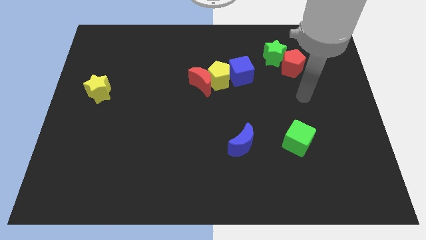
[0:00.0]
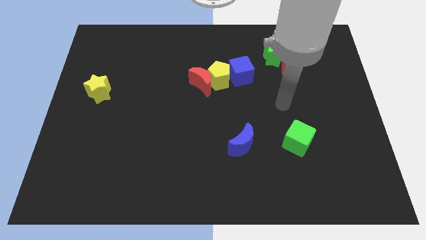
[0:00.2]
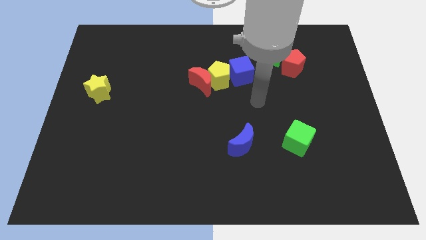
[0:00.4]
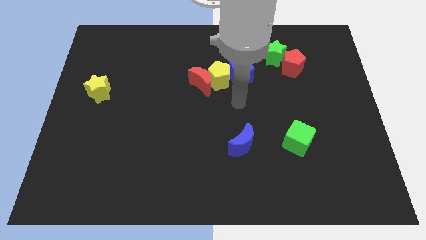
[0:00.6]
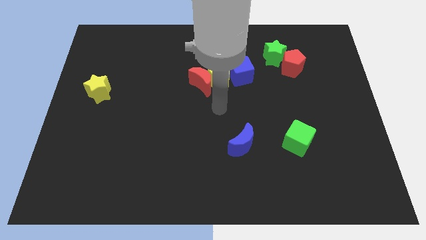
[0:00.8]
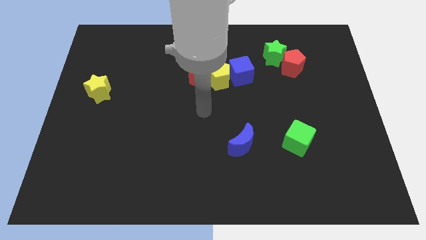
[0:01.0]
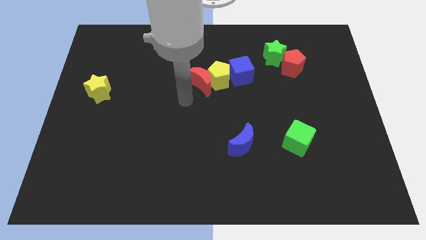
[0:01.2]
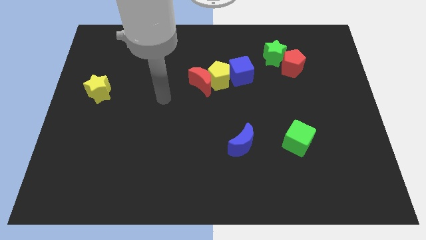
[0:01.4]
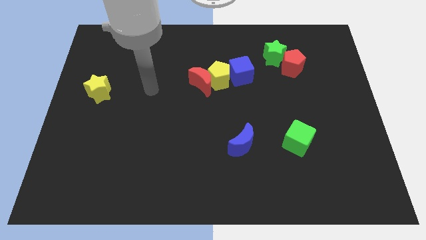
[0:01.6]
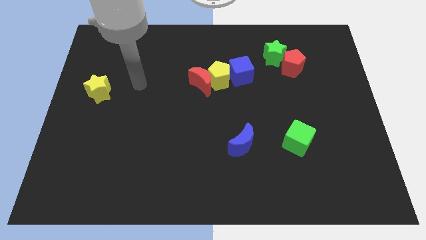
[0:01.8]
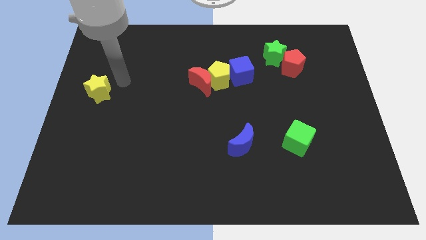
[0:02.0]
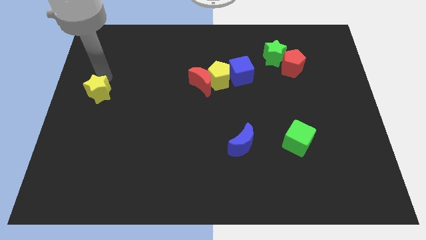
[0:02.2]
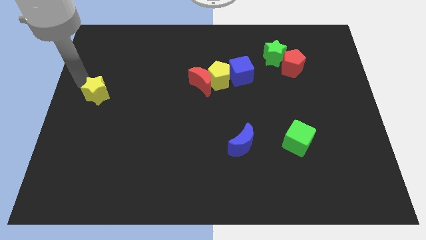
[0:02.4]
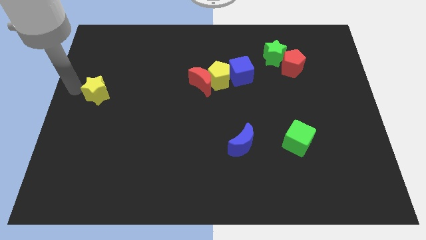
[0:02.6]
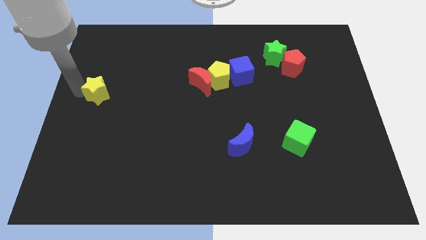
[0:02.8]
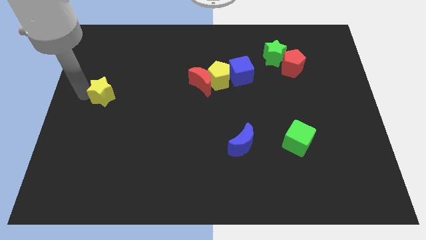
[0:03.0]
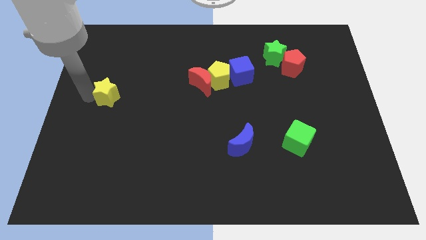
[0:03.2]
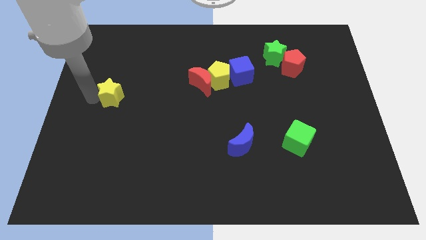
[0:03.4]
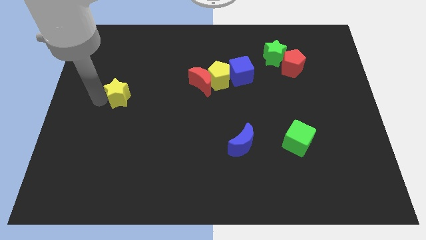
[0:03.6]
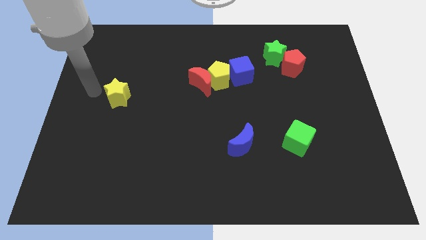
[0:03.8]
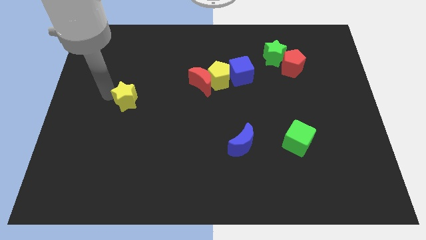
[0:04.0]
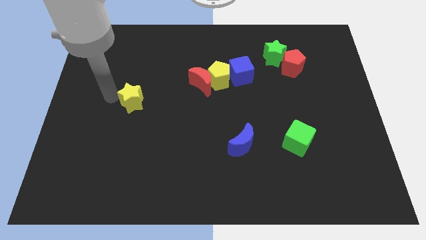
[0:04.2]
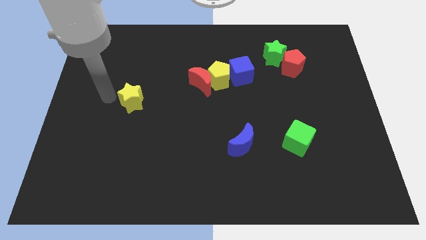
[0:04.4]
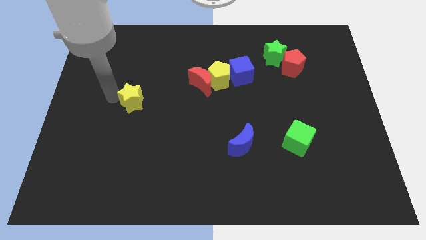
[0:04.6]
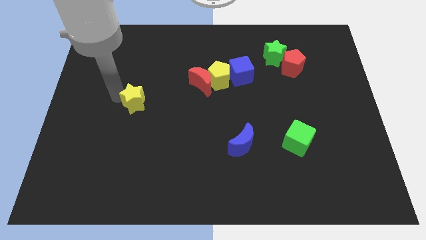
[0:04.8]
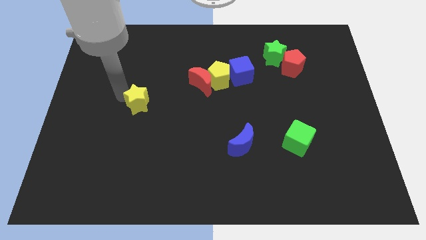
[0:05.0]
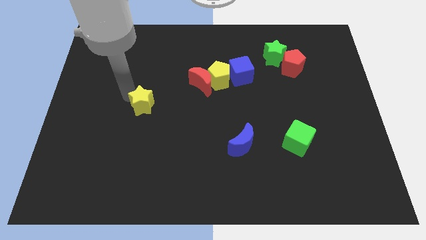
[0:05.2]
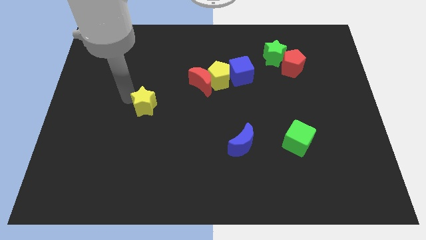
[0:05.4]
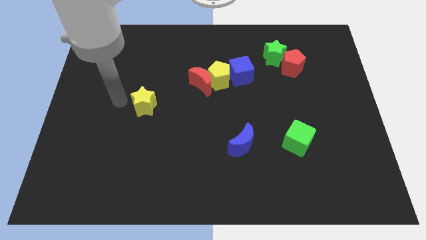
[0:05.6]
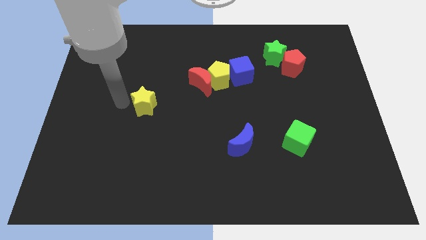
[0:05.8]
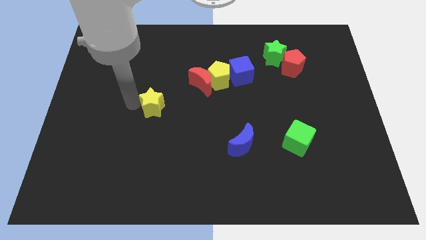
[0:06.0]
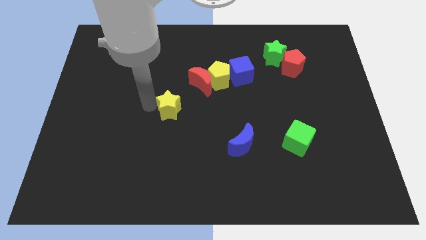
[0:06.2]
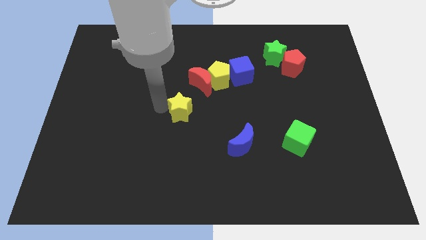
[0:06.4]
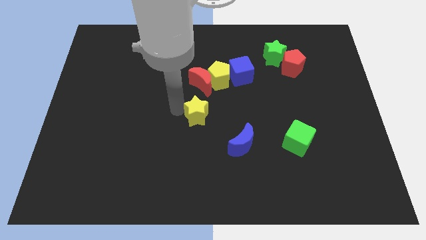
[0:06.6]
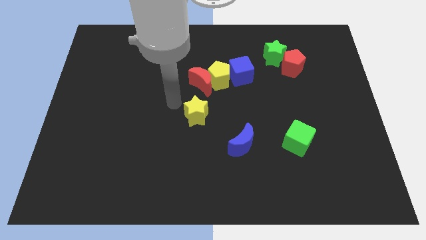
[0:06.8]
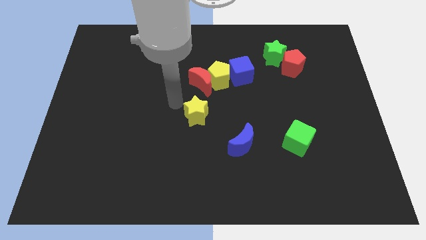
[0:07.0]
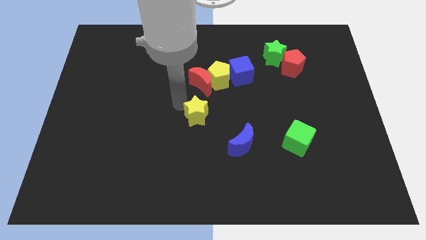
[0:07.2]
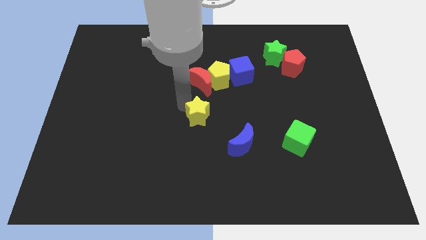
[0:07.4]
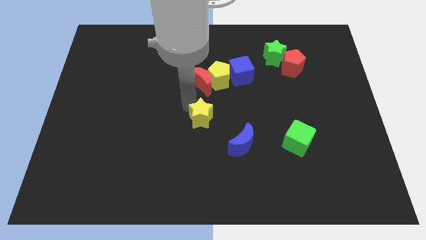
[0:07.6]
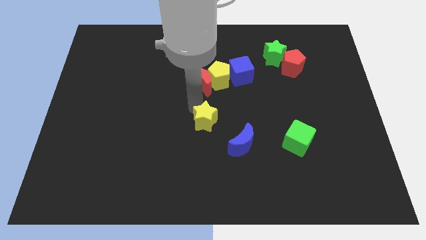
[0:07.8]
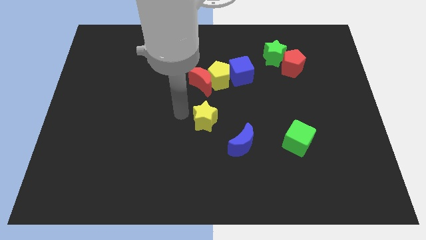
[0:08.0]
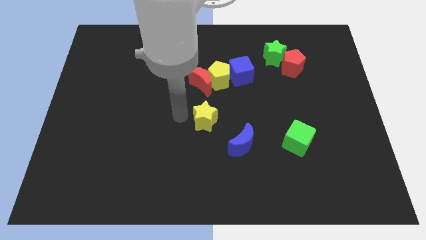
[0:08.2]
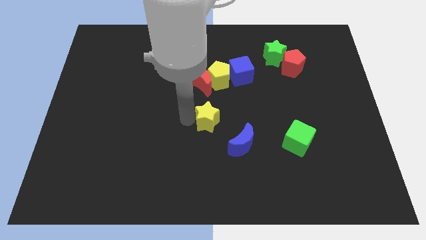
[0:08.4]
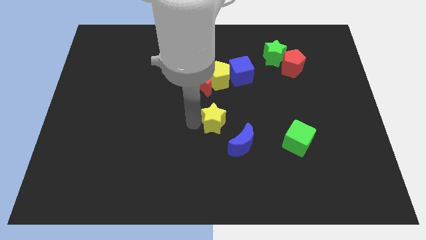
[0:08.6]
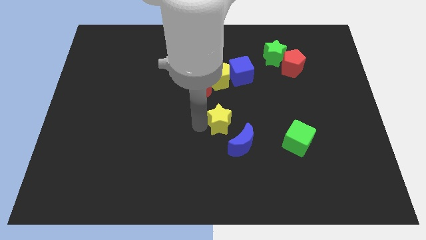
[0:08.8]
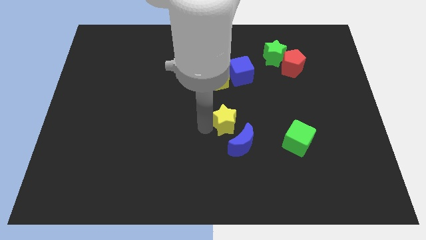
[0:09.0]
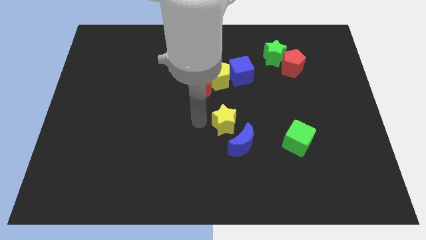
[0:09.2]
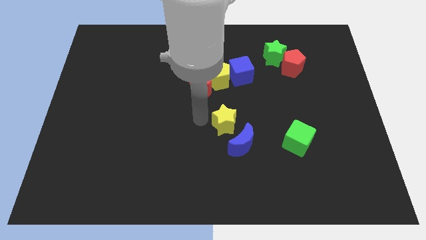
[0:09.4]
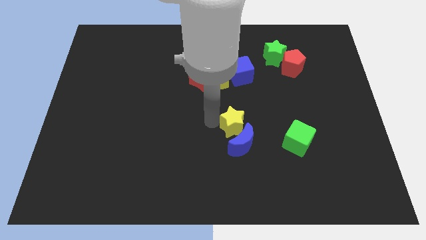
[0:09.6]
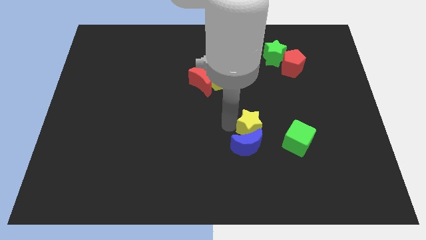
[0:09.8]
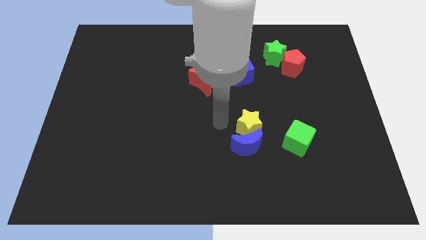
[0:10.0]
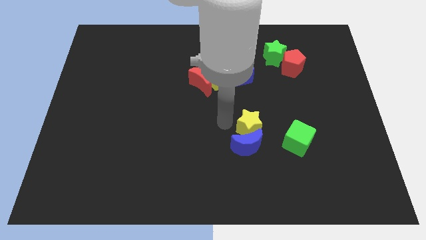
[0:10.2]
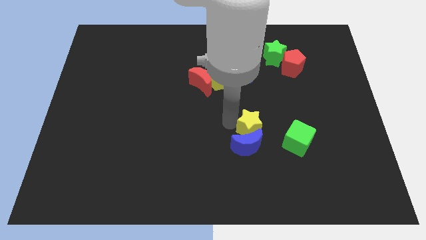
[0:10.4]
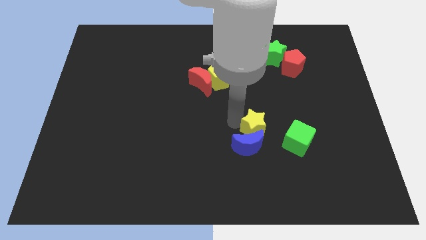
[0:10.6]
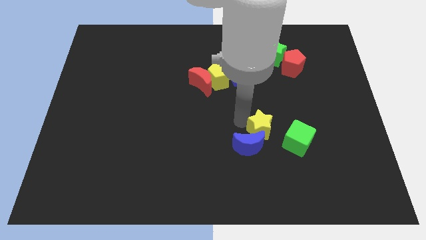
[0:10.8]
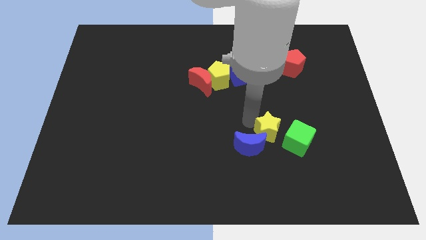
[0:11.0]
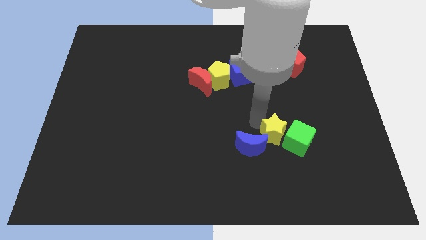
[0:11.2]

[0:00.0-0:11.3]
put the yellow star close to the green cube

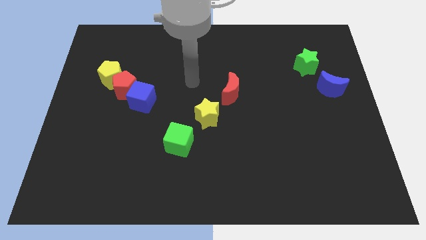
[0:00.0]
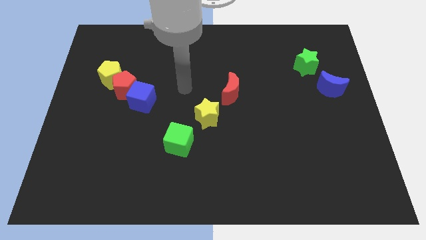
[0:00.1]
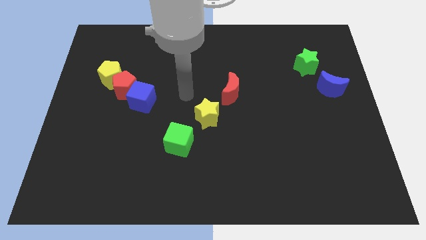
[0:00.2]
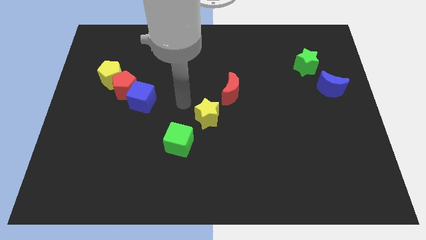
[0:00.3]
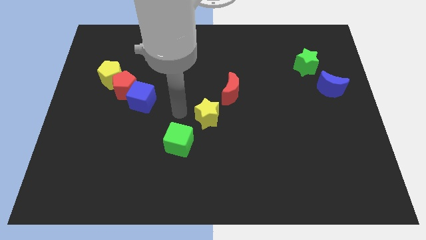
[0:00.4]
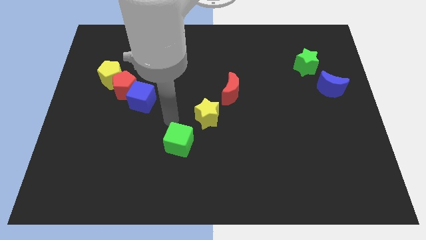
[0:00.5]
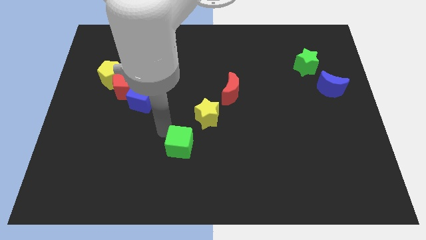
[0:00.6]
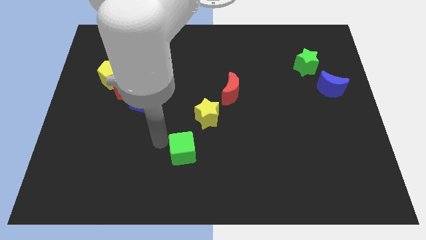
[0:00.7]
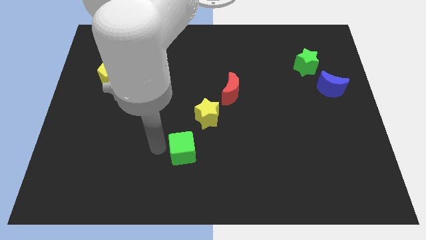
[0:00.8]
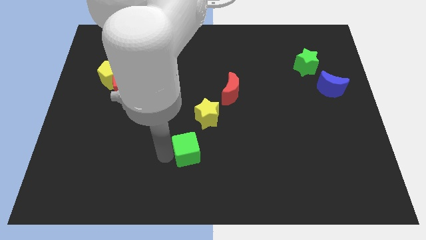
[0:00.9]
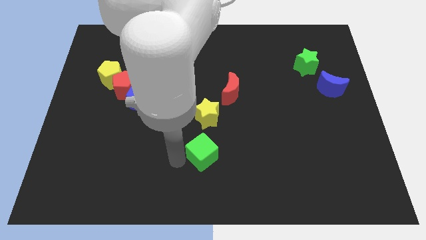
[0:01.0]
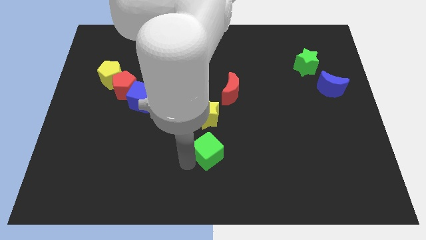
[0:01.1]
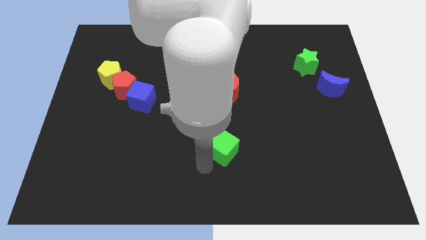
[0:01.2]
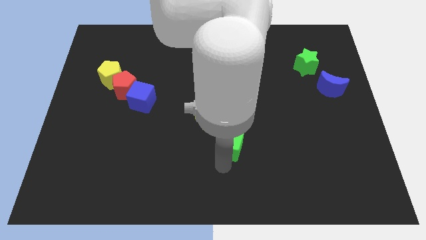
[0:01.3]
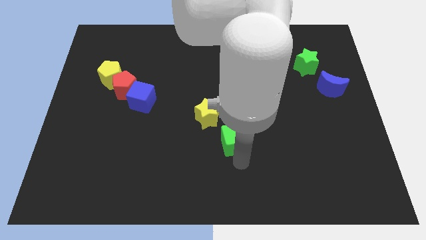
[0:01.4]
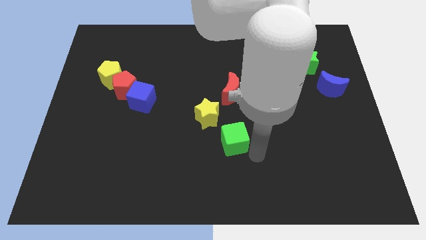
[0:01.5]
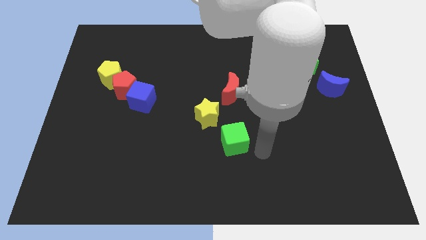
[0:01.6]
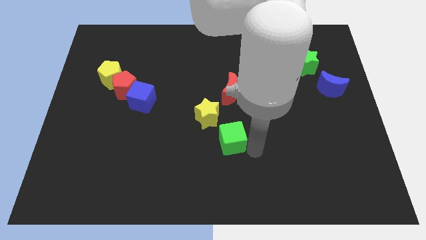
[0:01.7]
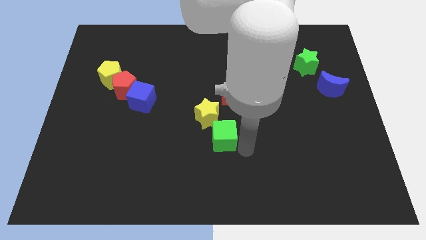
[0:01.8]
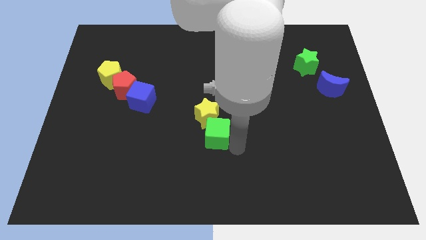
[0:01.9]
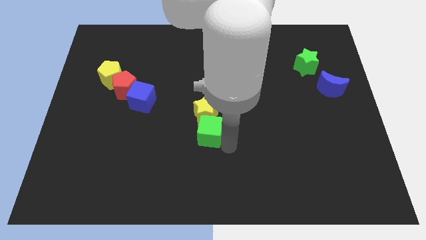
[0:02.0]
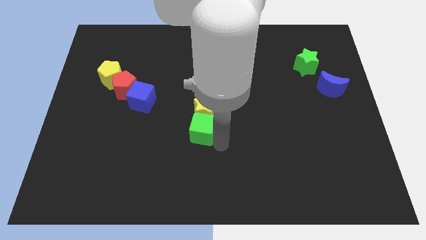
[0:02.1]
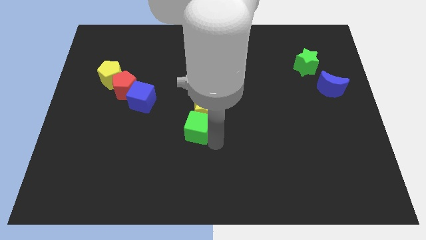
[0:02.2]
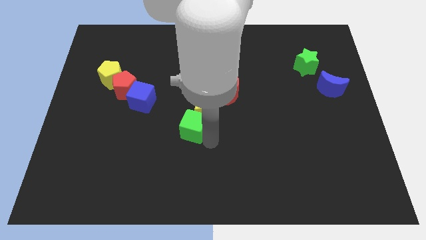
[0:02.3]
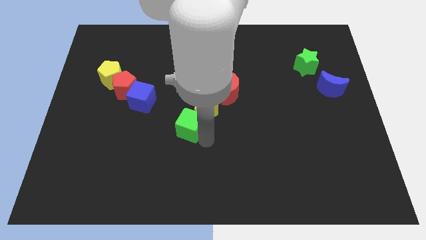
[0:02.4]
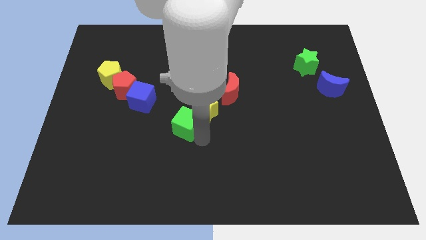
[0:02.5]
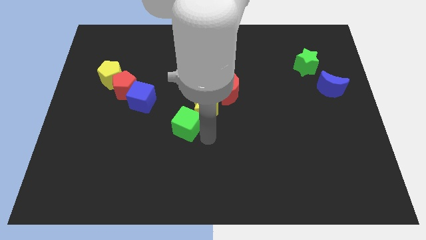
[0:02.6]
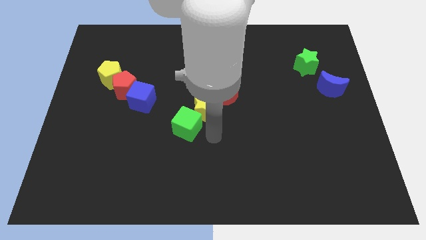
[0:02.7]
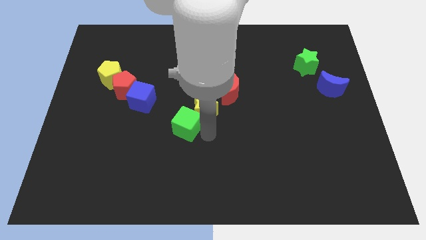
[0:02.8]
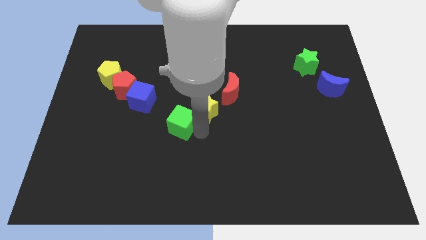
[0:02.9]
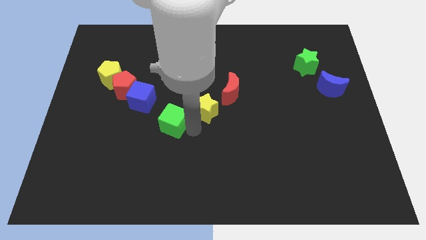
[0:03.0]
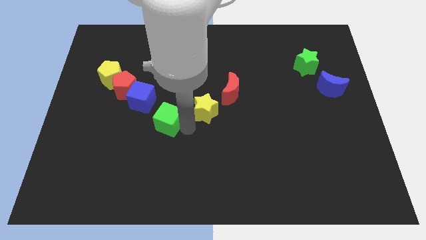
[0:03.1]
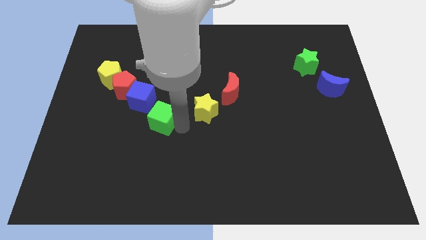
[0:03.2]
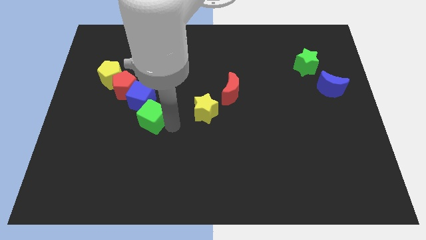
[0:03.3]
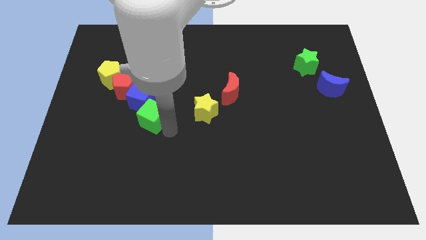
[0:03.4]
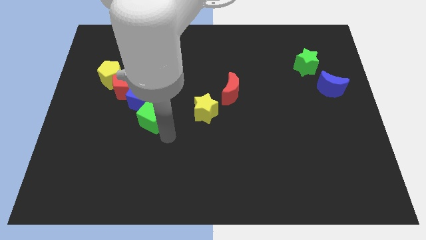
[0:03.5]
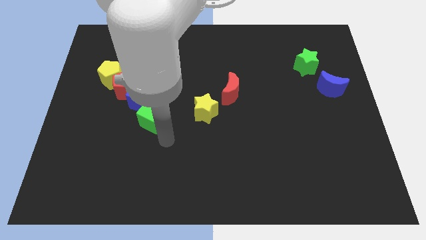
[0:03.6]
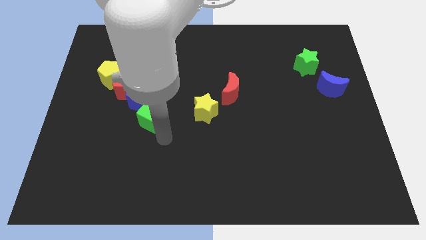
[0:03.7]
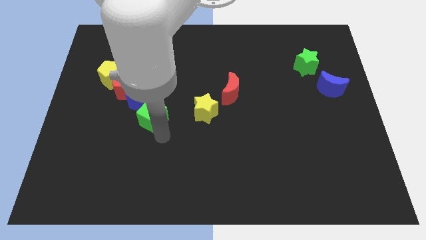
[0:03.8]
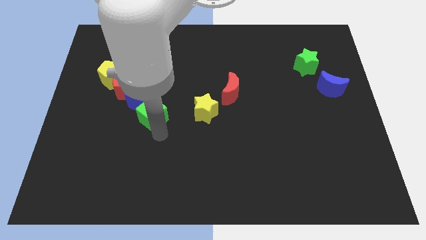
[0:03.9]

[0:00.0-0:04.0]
push the green cube towards the blue cube
